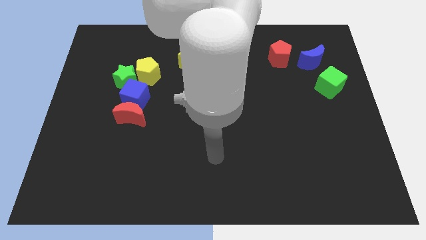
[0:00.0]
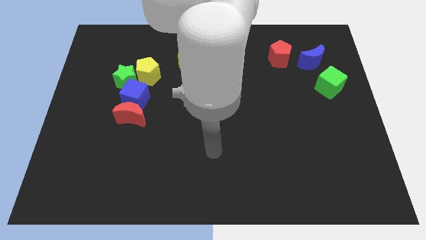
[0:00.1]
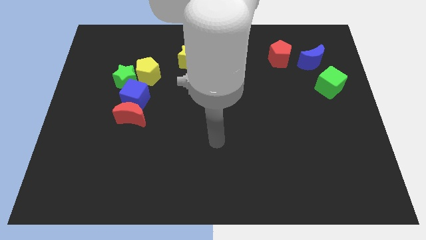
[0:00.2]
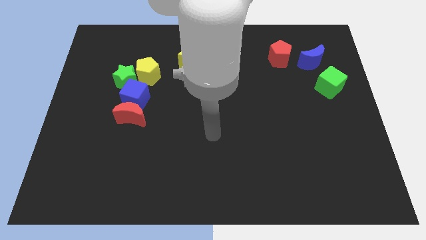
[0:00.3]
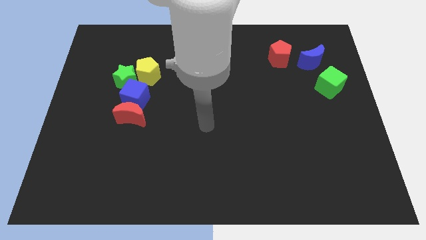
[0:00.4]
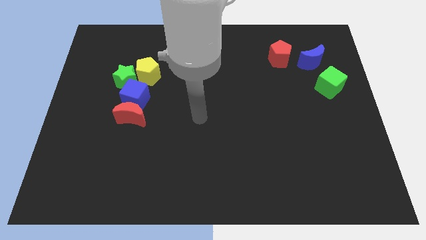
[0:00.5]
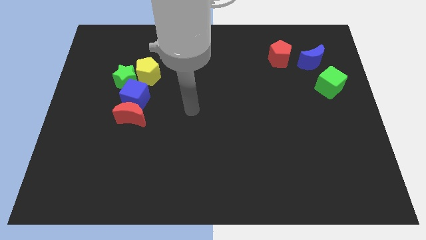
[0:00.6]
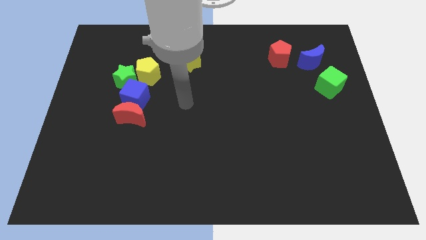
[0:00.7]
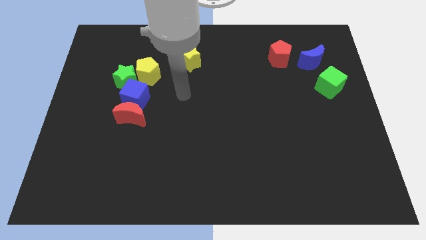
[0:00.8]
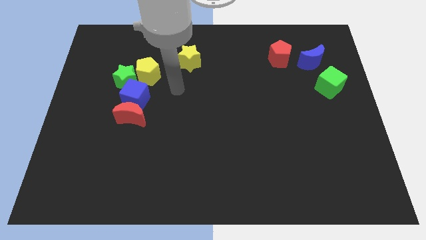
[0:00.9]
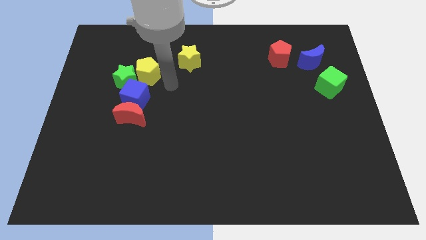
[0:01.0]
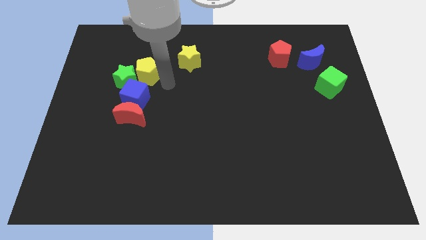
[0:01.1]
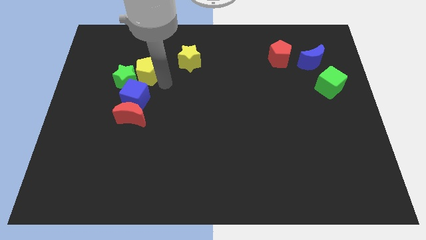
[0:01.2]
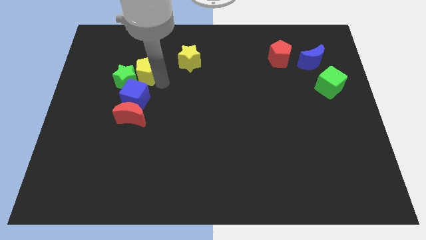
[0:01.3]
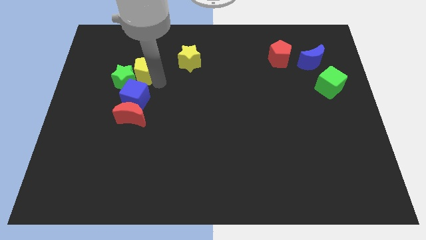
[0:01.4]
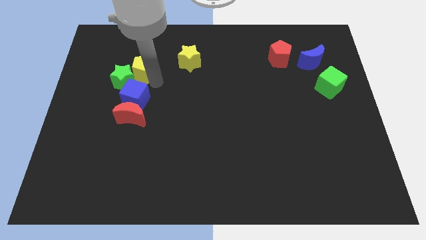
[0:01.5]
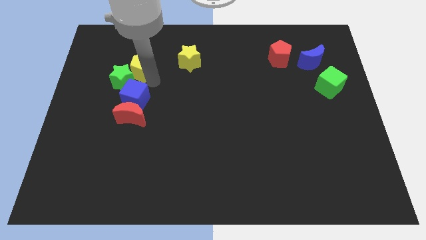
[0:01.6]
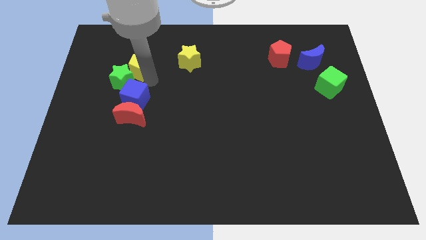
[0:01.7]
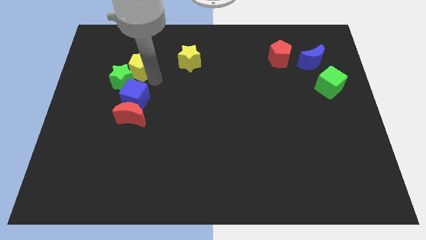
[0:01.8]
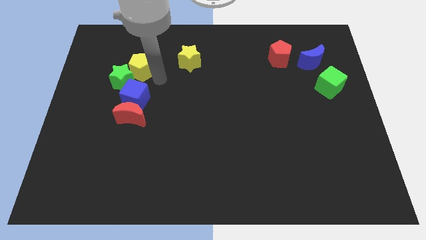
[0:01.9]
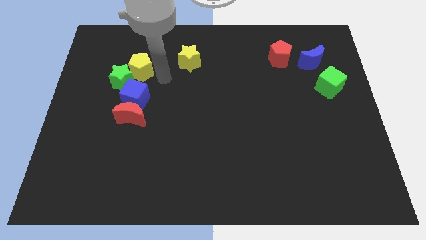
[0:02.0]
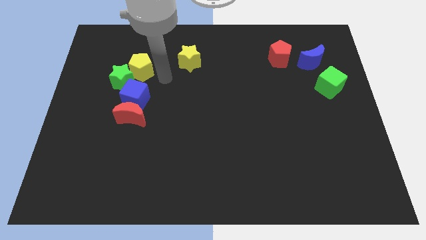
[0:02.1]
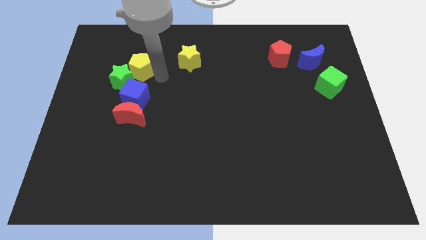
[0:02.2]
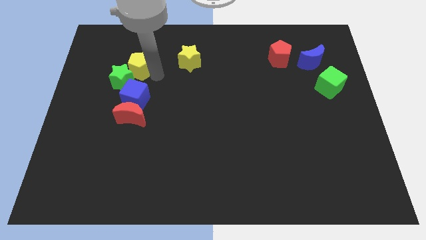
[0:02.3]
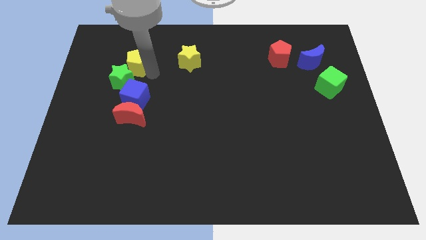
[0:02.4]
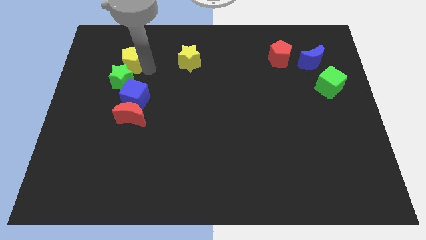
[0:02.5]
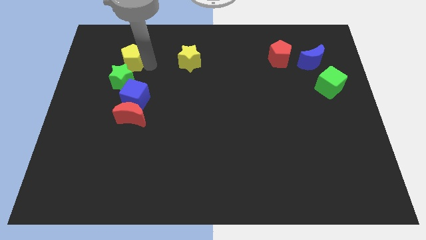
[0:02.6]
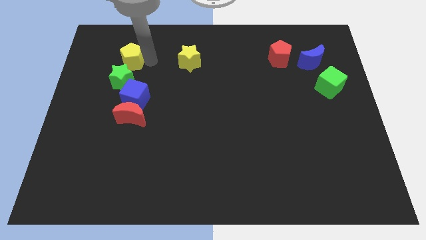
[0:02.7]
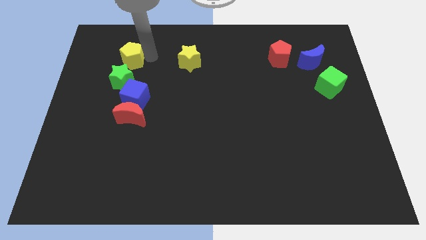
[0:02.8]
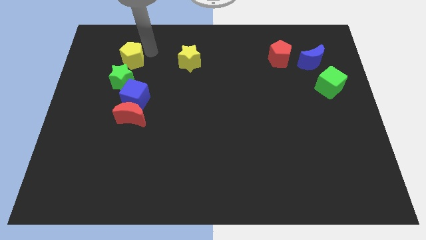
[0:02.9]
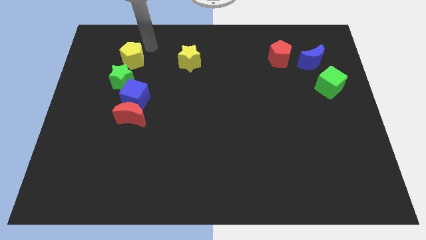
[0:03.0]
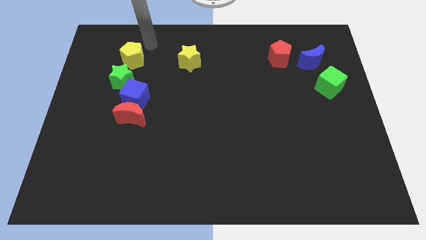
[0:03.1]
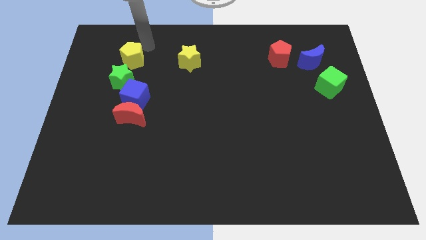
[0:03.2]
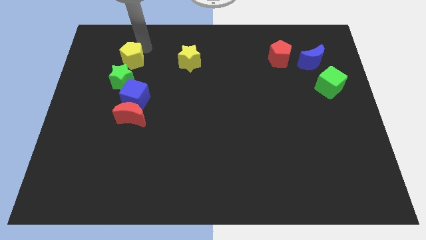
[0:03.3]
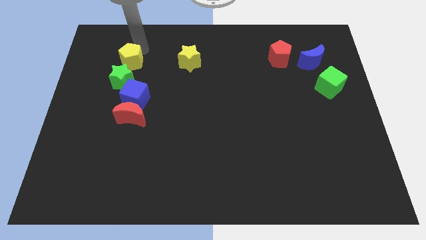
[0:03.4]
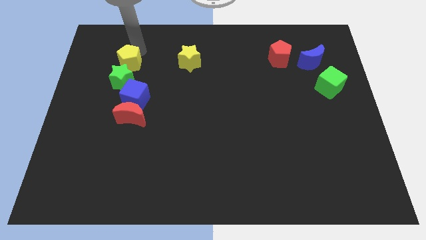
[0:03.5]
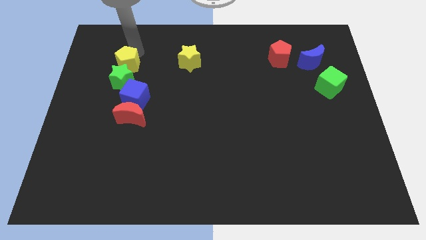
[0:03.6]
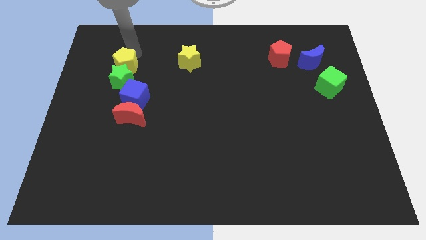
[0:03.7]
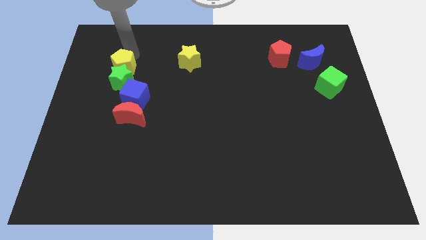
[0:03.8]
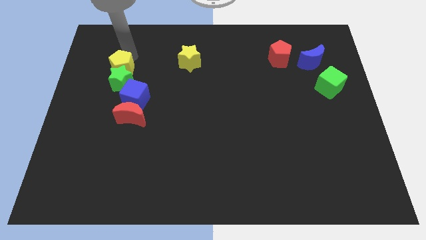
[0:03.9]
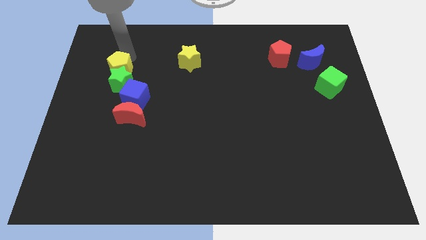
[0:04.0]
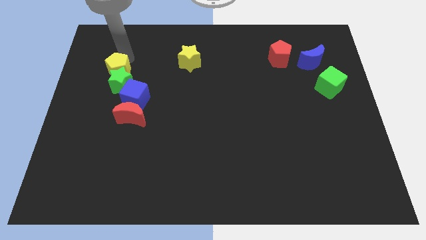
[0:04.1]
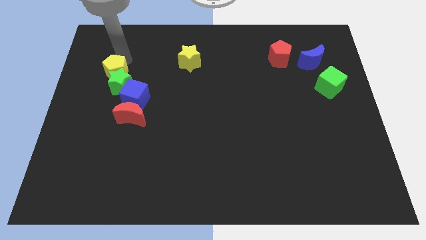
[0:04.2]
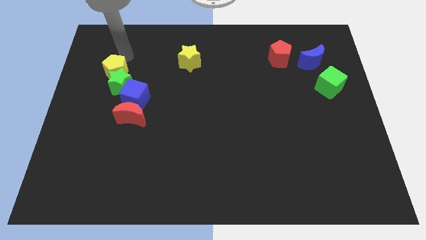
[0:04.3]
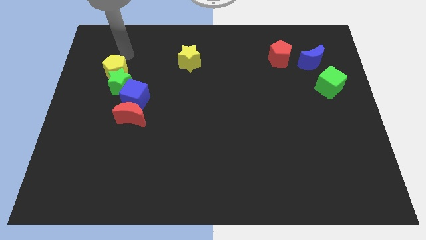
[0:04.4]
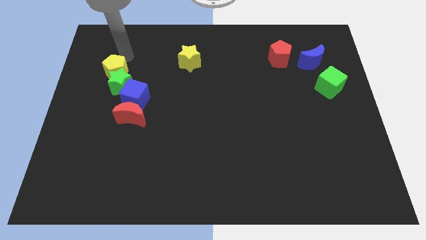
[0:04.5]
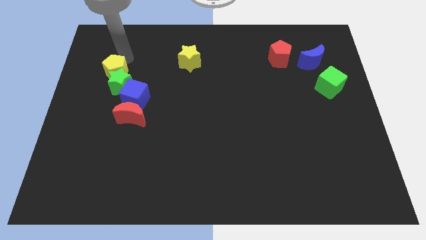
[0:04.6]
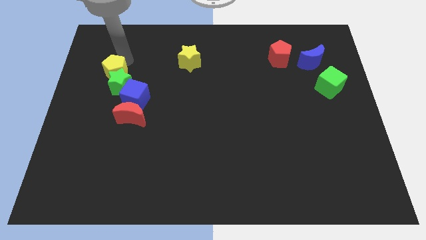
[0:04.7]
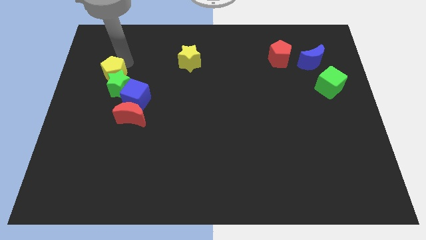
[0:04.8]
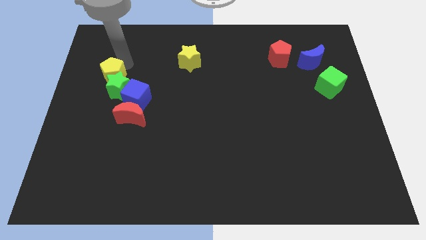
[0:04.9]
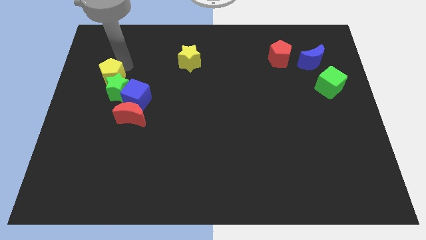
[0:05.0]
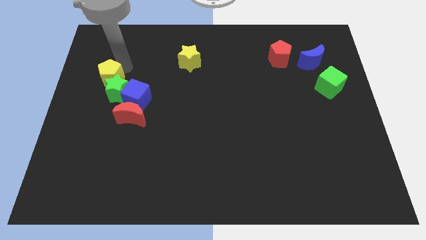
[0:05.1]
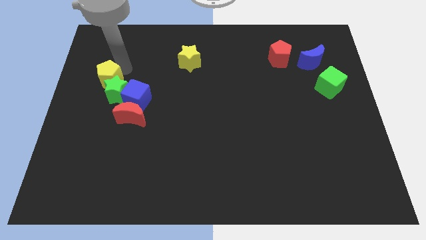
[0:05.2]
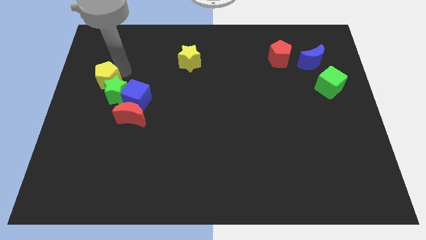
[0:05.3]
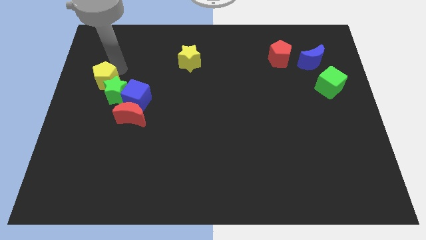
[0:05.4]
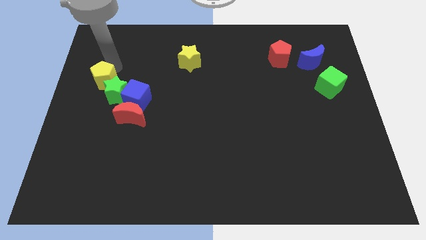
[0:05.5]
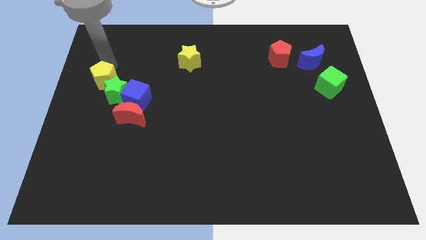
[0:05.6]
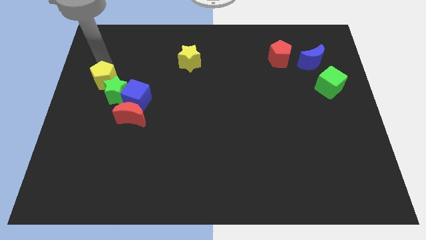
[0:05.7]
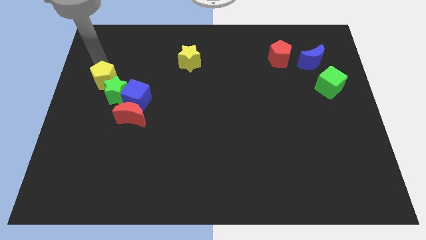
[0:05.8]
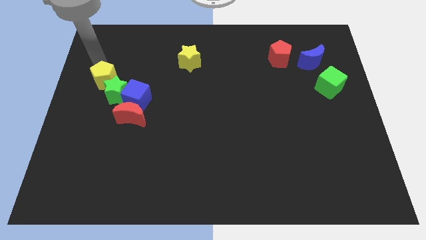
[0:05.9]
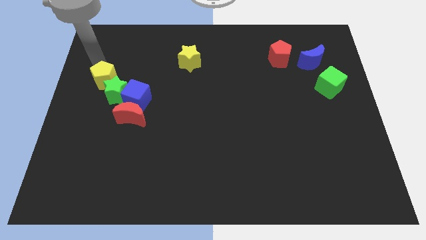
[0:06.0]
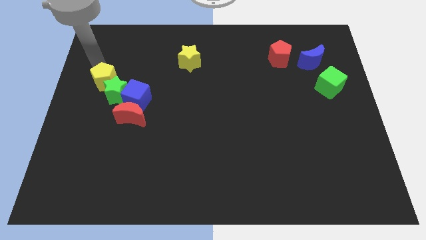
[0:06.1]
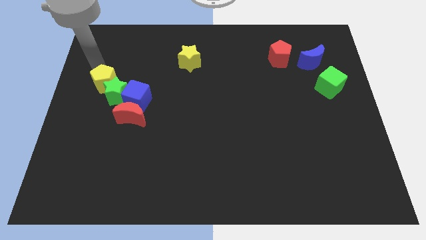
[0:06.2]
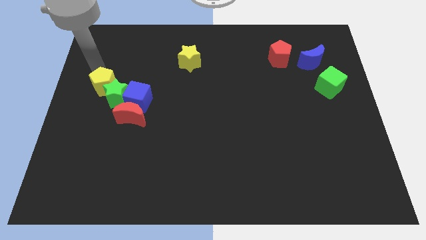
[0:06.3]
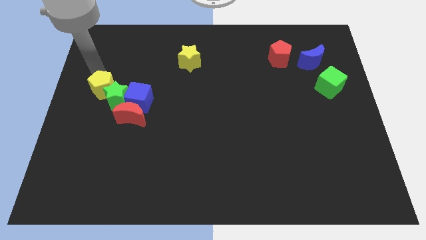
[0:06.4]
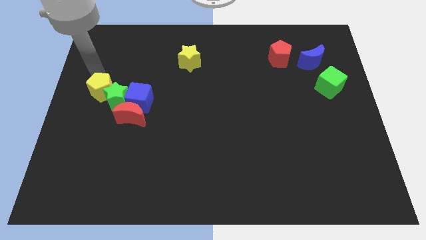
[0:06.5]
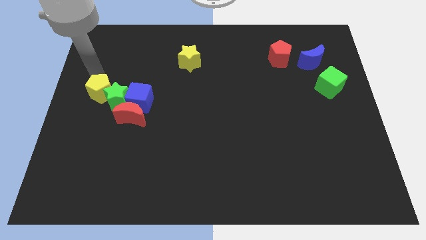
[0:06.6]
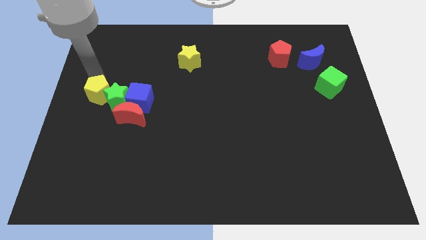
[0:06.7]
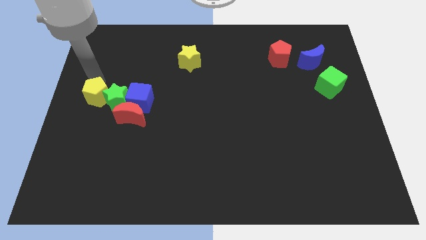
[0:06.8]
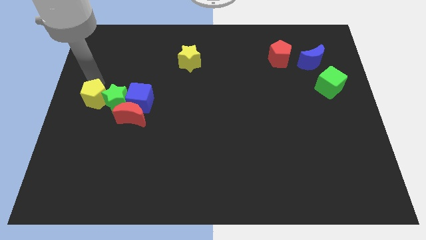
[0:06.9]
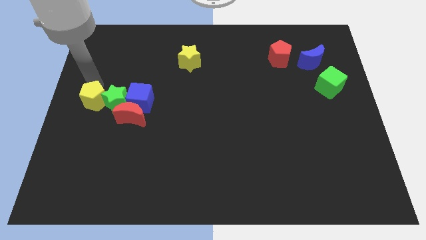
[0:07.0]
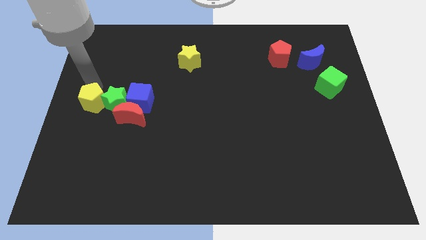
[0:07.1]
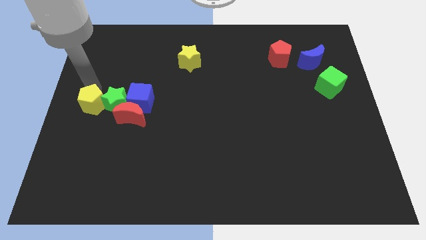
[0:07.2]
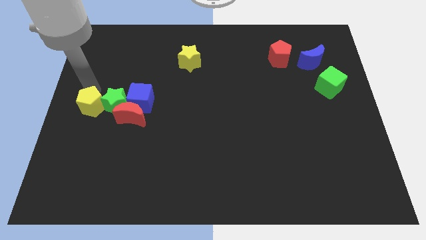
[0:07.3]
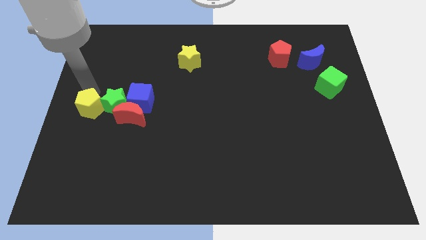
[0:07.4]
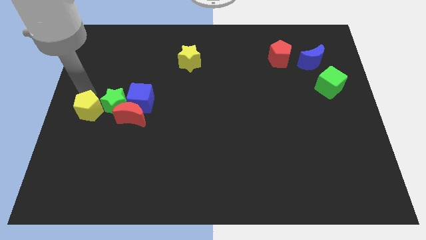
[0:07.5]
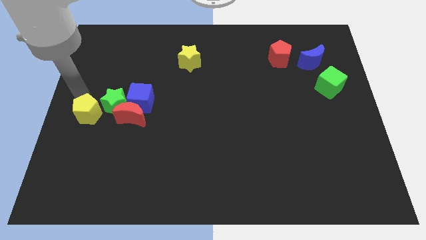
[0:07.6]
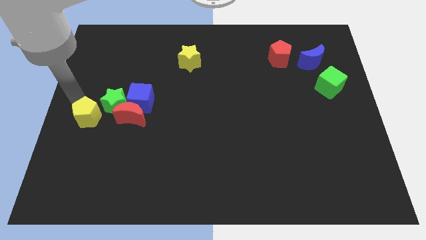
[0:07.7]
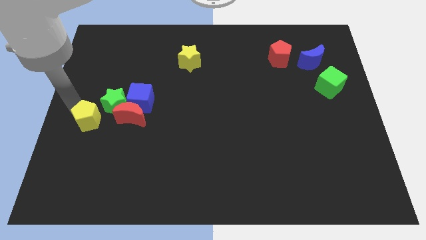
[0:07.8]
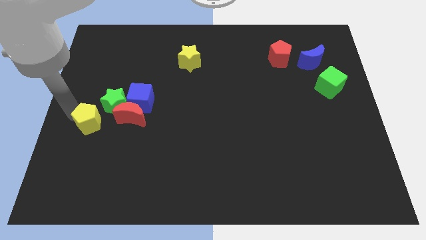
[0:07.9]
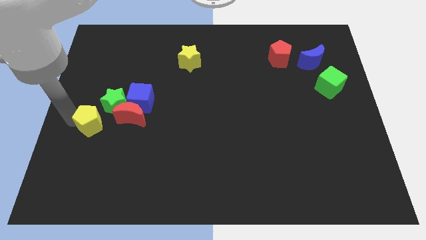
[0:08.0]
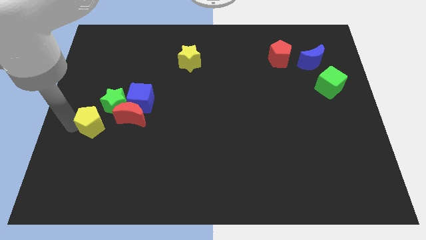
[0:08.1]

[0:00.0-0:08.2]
move the yellow pentagon to the bottom left of the blue cube
